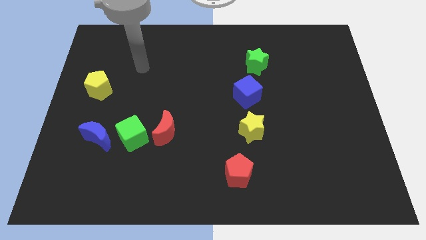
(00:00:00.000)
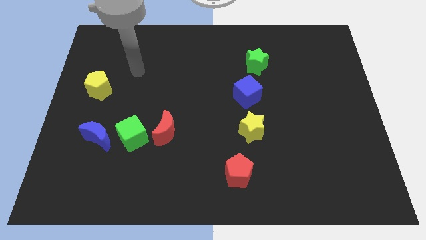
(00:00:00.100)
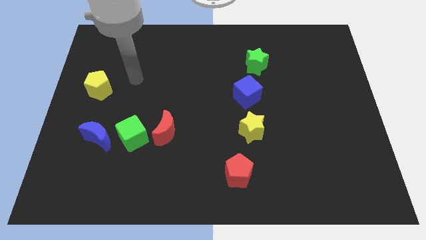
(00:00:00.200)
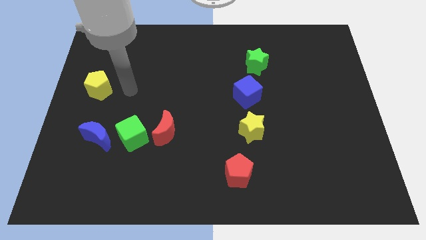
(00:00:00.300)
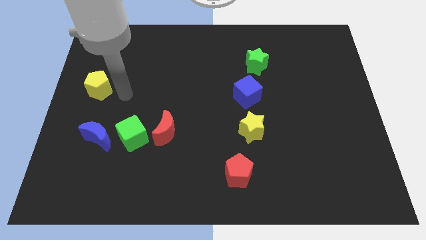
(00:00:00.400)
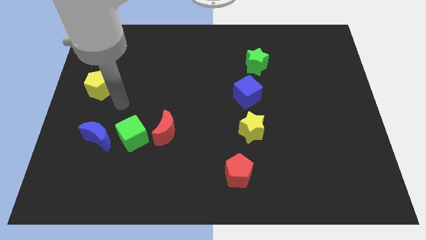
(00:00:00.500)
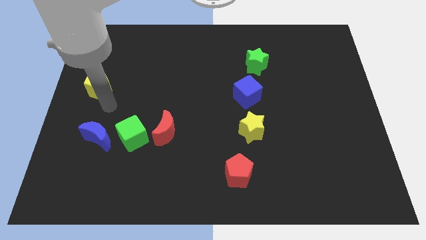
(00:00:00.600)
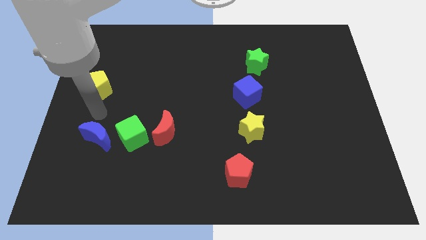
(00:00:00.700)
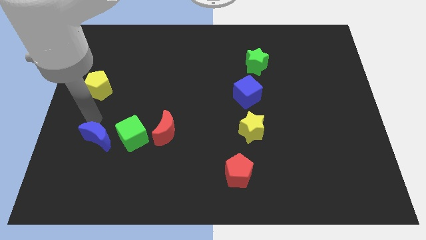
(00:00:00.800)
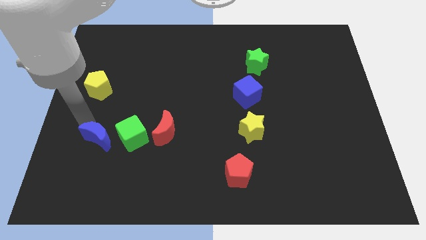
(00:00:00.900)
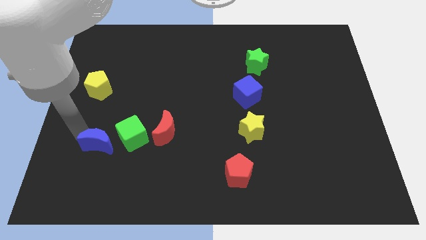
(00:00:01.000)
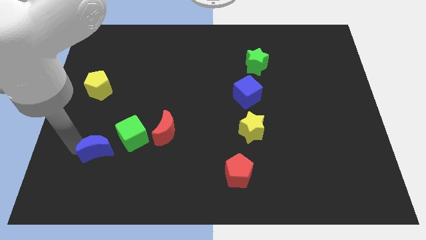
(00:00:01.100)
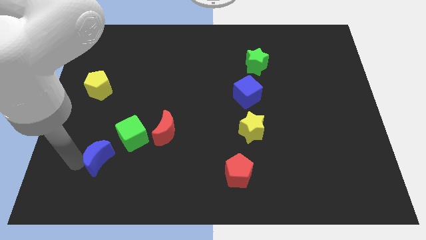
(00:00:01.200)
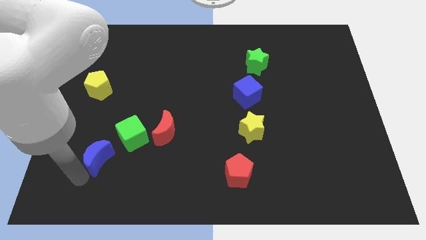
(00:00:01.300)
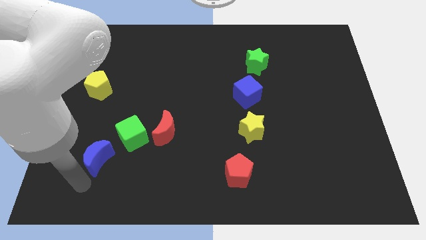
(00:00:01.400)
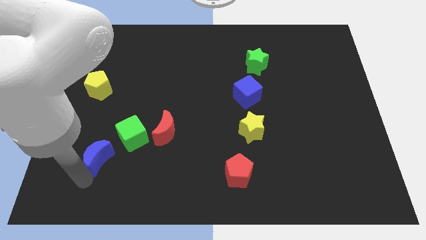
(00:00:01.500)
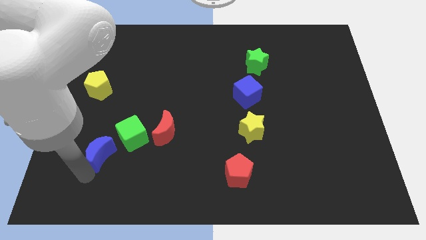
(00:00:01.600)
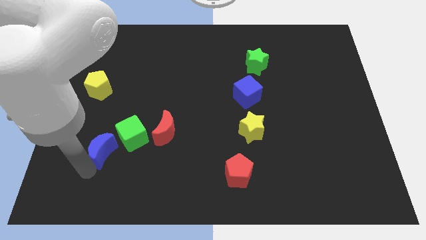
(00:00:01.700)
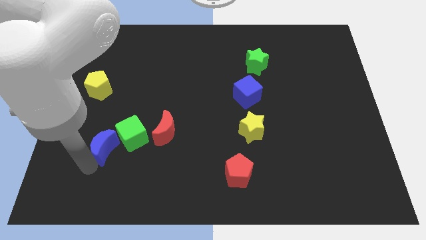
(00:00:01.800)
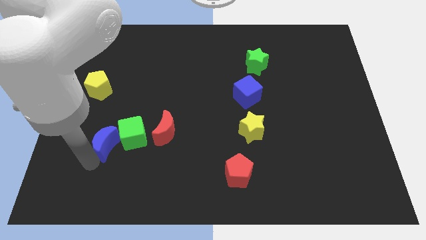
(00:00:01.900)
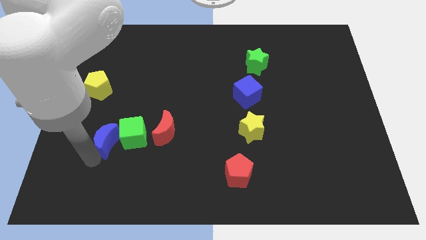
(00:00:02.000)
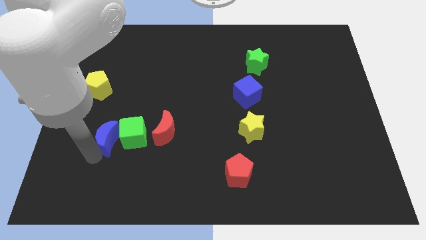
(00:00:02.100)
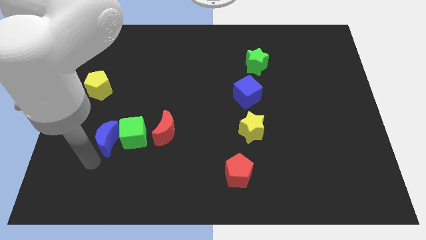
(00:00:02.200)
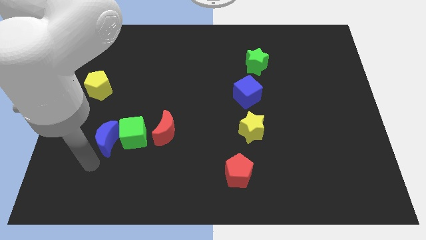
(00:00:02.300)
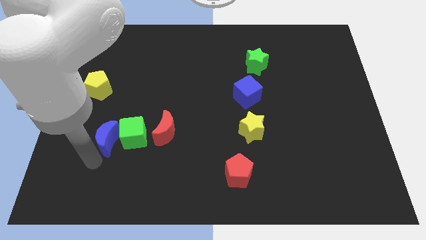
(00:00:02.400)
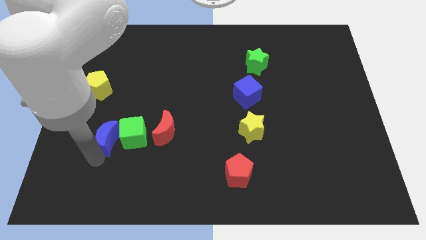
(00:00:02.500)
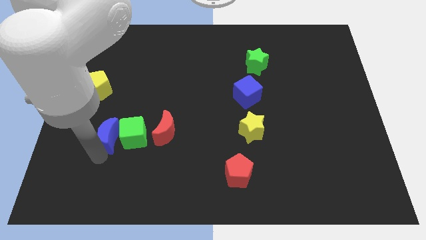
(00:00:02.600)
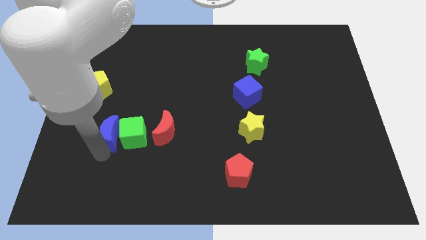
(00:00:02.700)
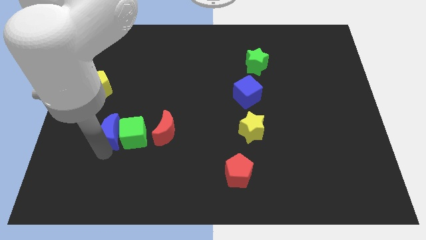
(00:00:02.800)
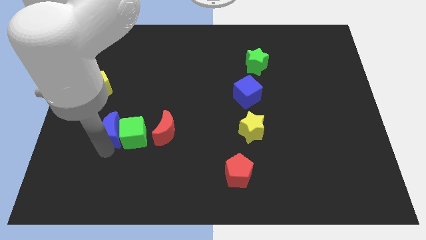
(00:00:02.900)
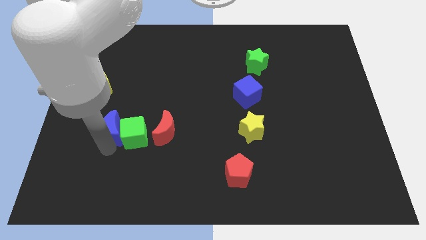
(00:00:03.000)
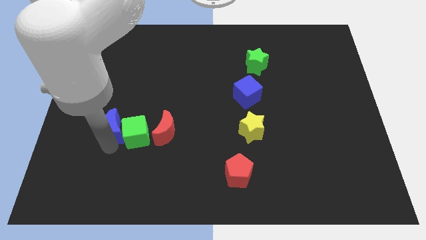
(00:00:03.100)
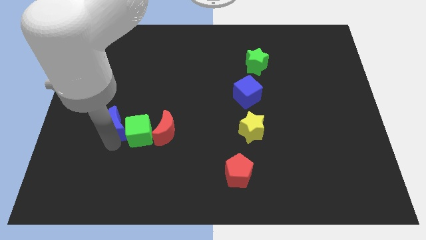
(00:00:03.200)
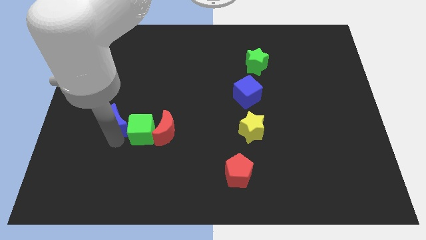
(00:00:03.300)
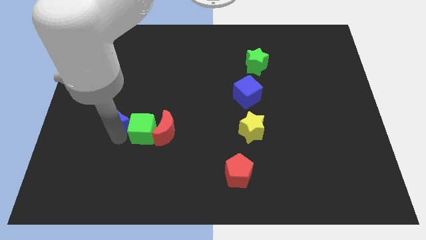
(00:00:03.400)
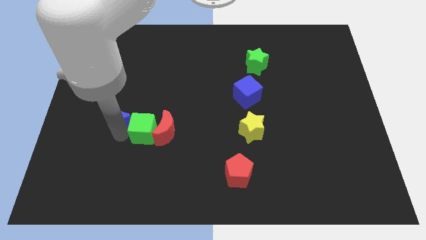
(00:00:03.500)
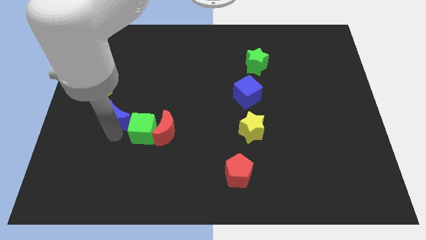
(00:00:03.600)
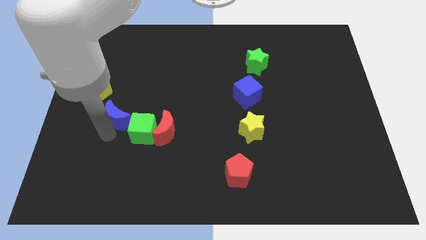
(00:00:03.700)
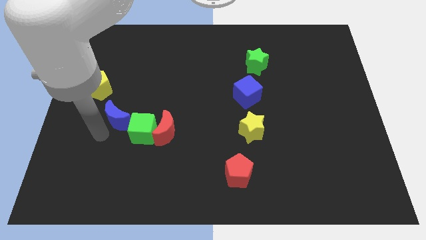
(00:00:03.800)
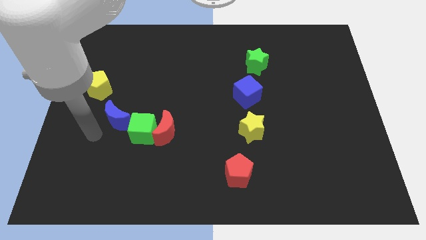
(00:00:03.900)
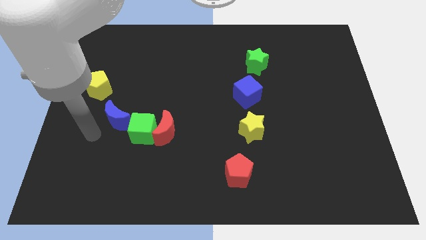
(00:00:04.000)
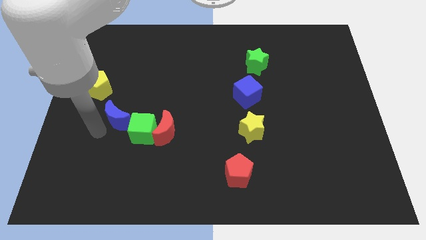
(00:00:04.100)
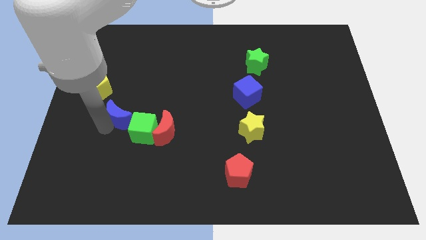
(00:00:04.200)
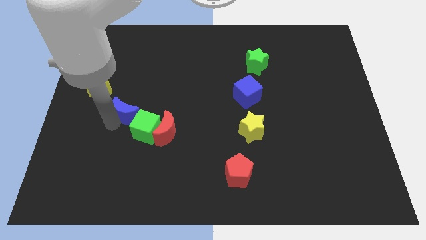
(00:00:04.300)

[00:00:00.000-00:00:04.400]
slide the blue moon upwards and right diagonally a little

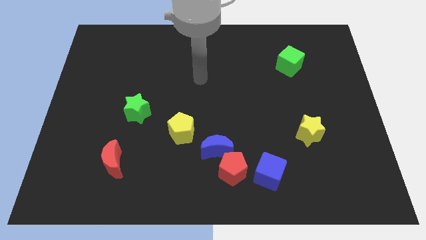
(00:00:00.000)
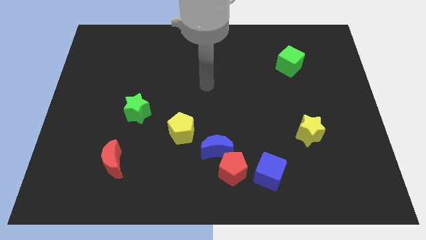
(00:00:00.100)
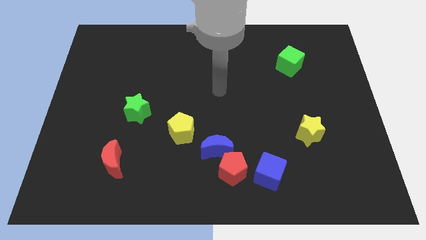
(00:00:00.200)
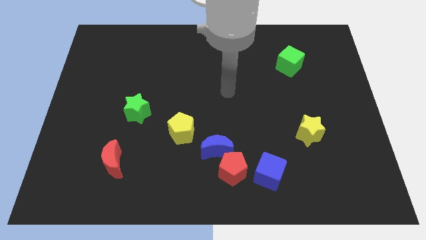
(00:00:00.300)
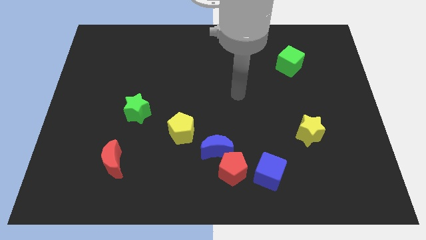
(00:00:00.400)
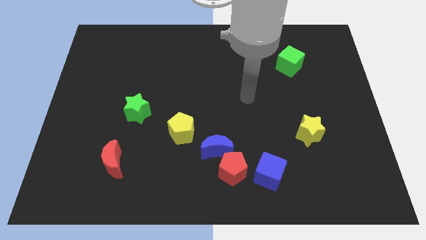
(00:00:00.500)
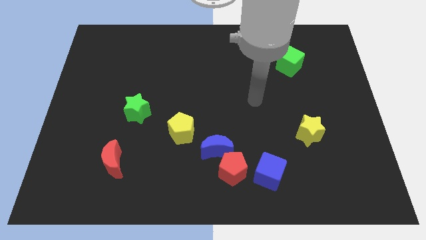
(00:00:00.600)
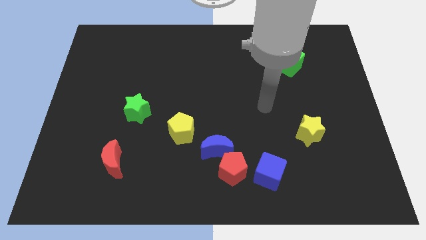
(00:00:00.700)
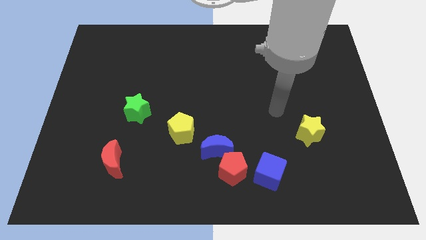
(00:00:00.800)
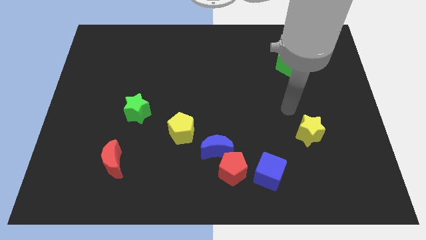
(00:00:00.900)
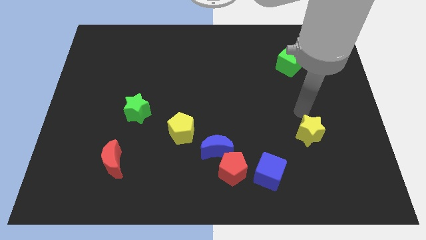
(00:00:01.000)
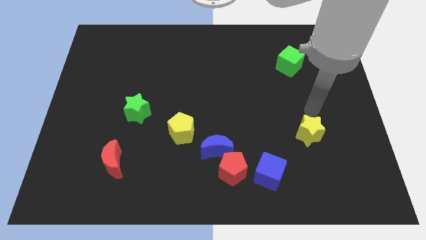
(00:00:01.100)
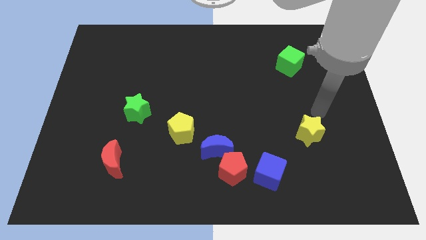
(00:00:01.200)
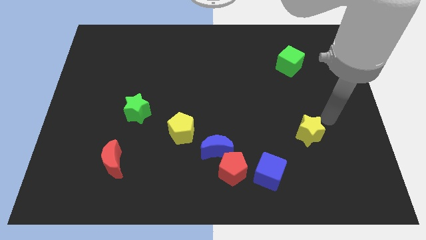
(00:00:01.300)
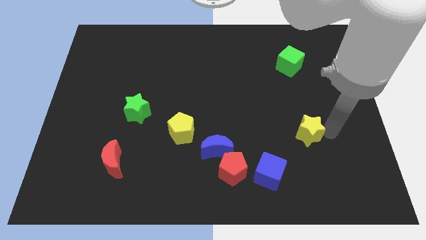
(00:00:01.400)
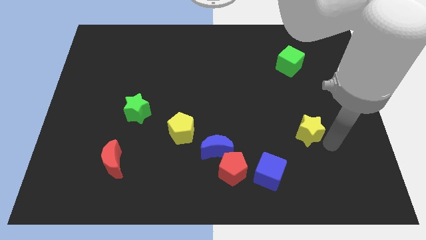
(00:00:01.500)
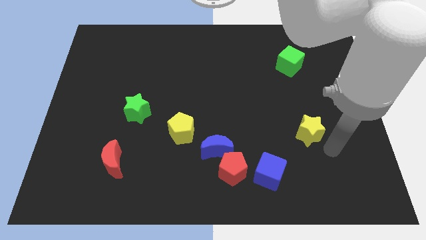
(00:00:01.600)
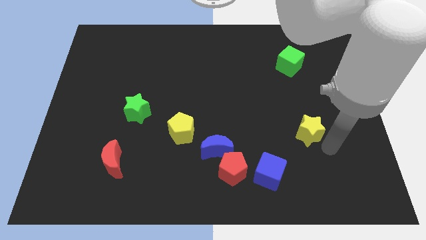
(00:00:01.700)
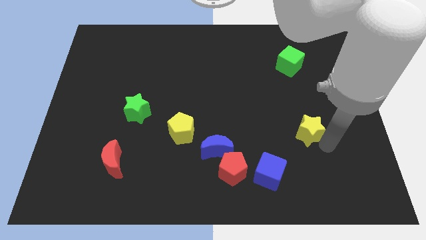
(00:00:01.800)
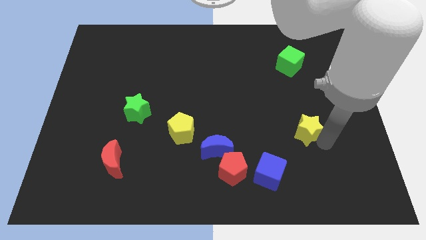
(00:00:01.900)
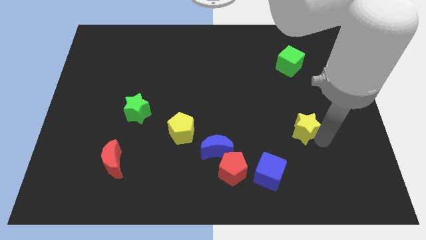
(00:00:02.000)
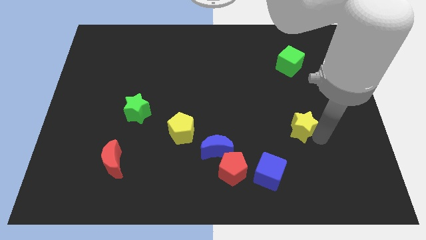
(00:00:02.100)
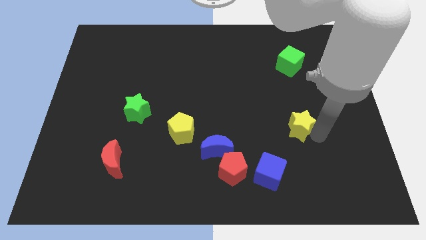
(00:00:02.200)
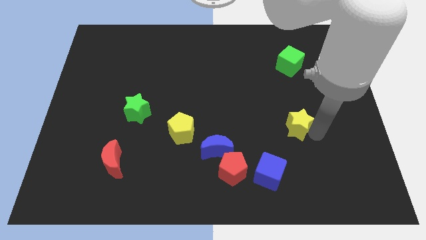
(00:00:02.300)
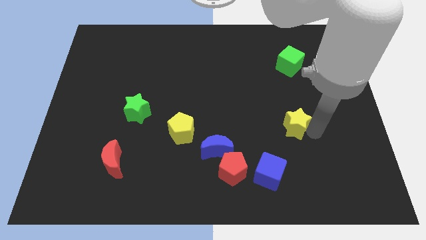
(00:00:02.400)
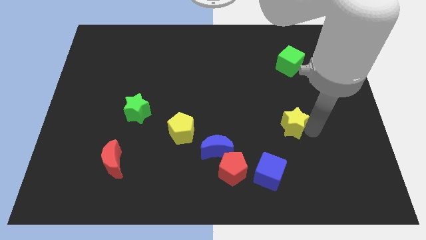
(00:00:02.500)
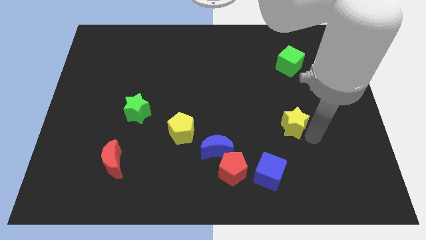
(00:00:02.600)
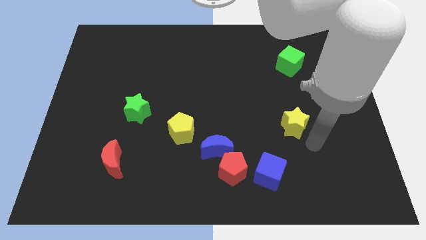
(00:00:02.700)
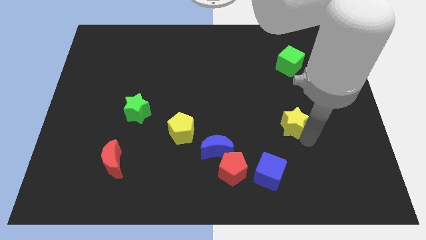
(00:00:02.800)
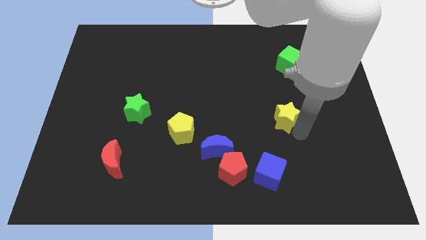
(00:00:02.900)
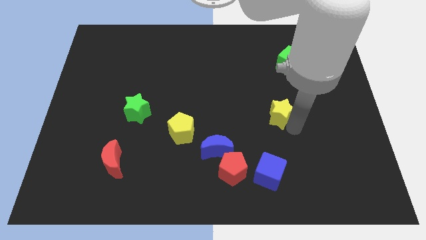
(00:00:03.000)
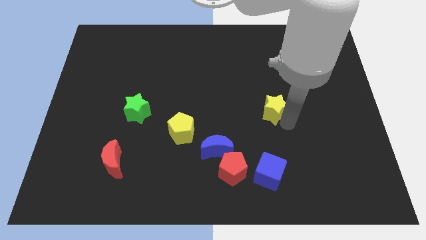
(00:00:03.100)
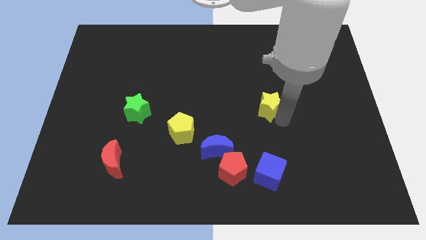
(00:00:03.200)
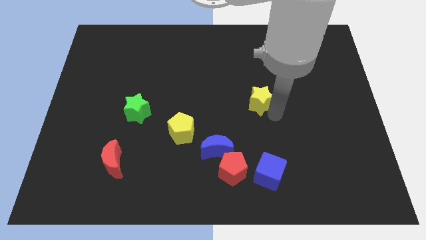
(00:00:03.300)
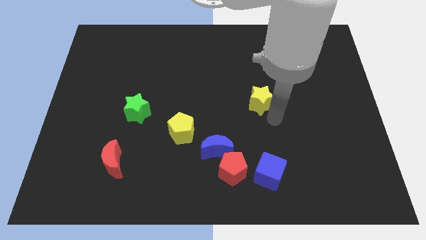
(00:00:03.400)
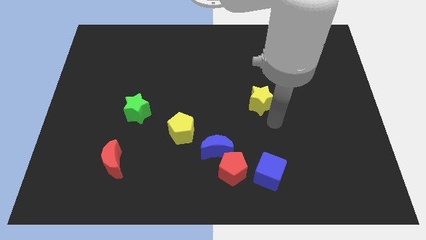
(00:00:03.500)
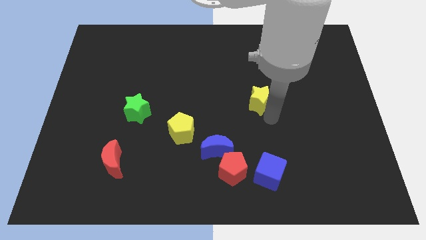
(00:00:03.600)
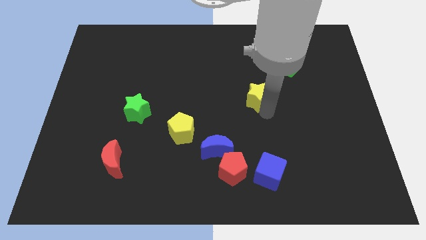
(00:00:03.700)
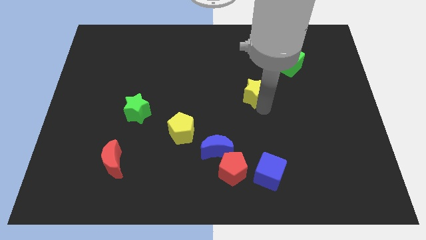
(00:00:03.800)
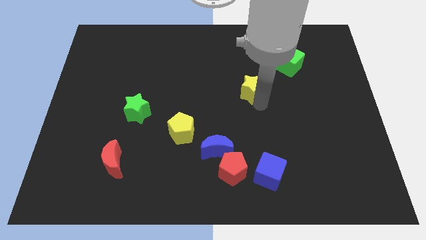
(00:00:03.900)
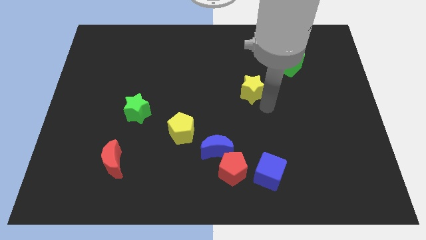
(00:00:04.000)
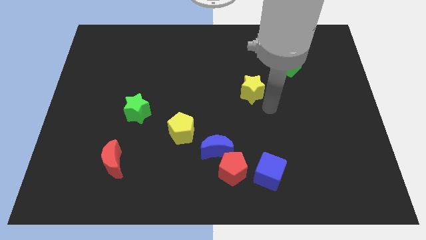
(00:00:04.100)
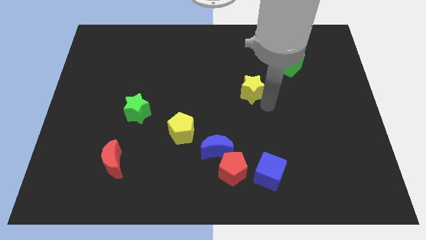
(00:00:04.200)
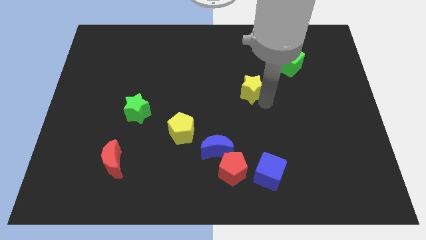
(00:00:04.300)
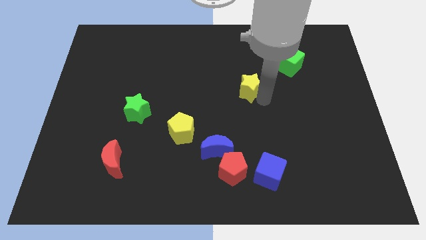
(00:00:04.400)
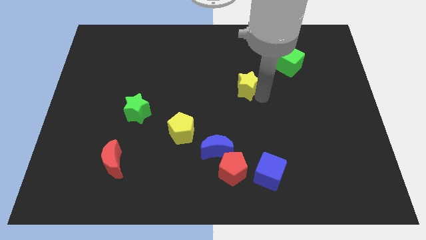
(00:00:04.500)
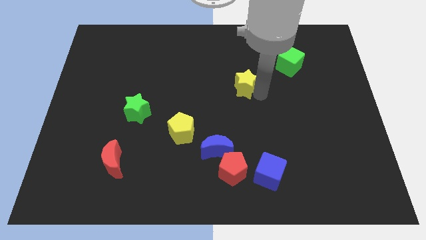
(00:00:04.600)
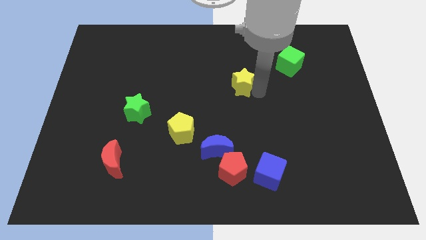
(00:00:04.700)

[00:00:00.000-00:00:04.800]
move the yellow star upwards and then left
